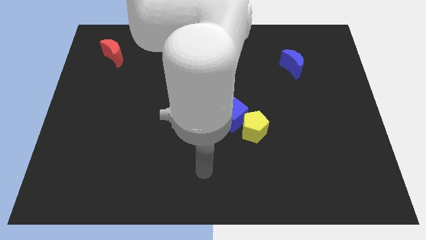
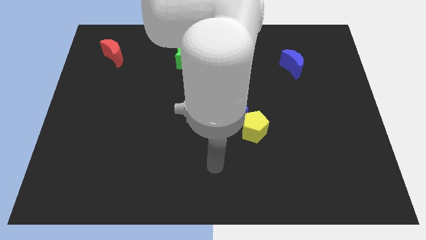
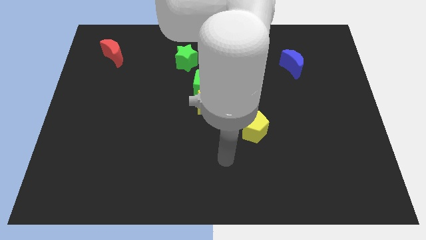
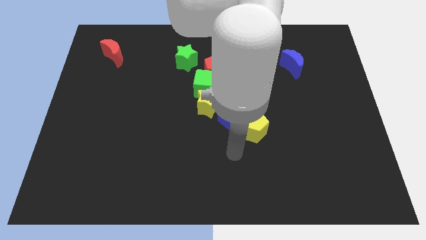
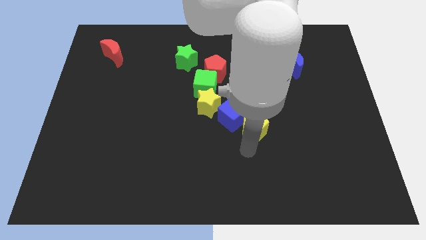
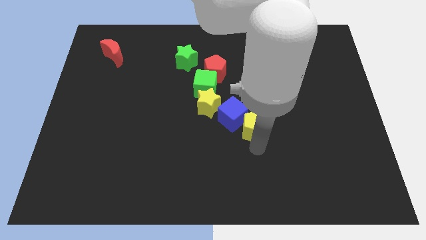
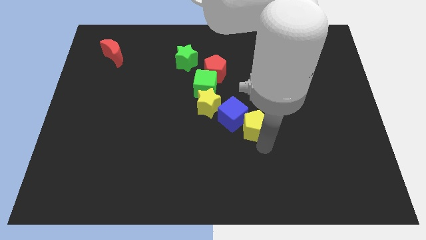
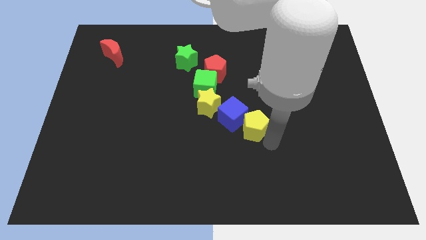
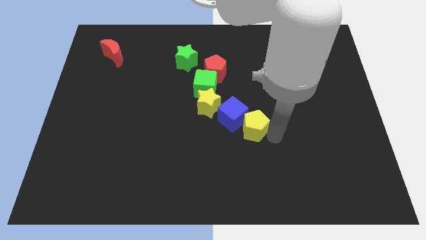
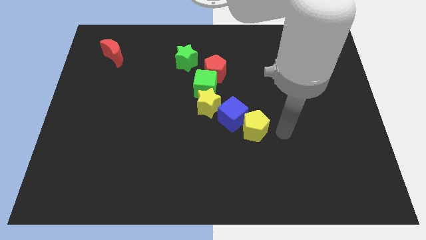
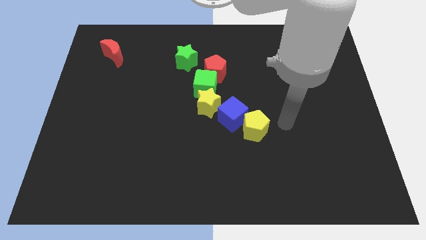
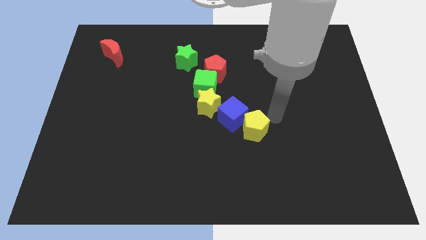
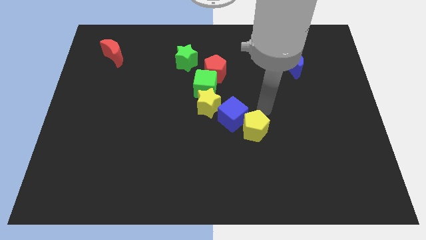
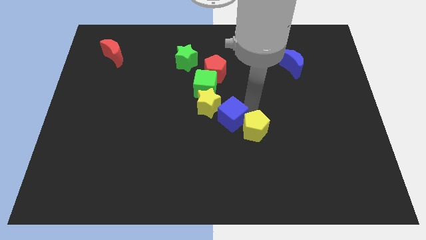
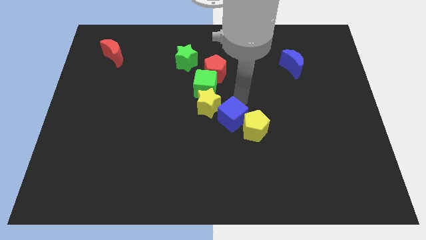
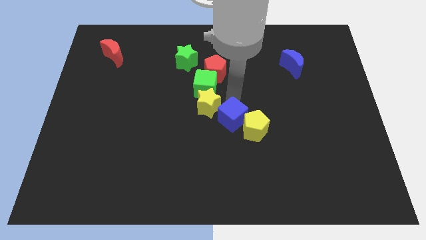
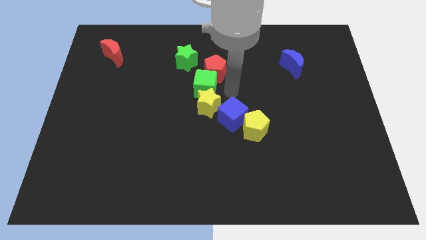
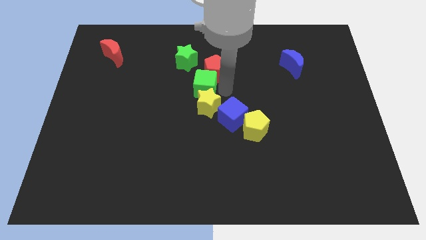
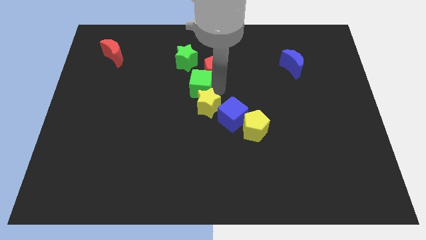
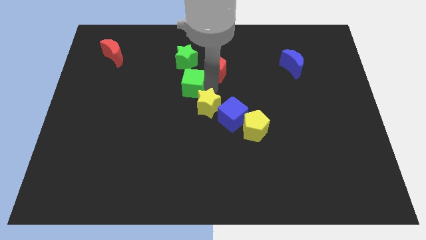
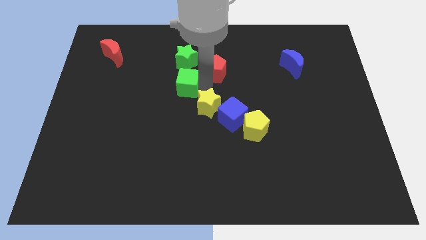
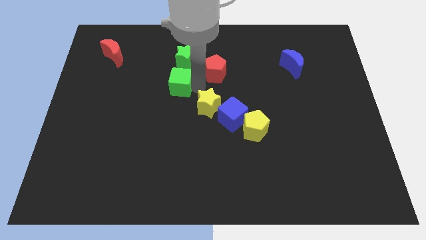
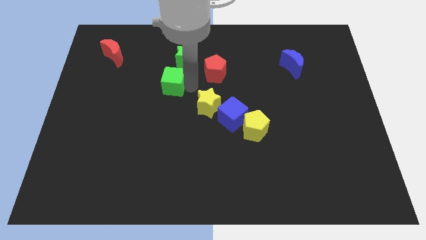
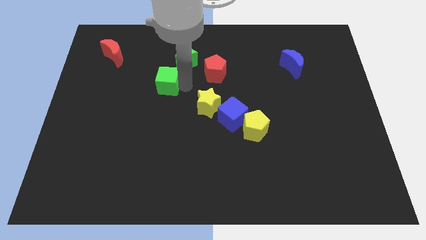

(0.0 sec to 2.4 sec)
pull the green cube apart from the red pentagon and yellow star

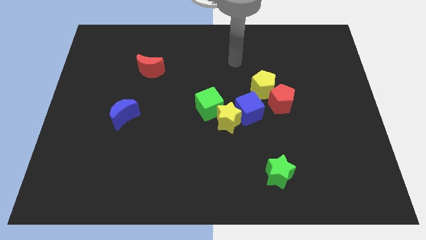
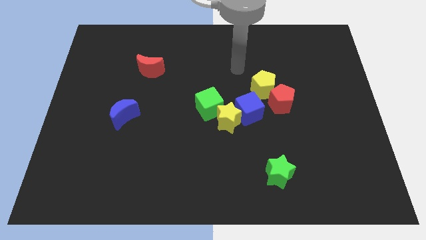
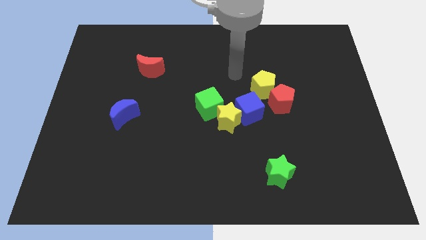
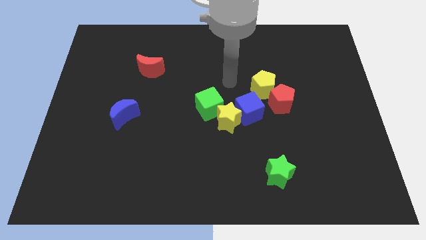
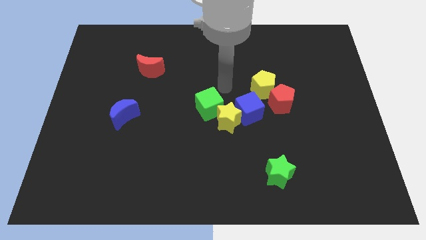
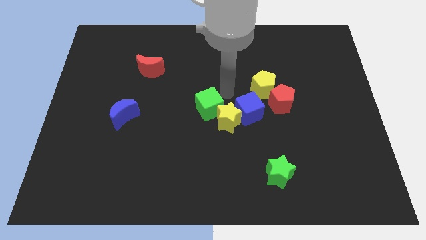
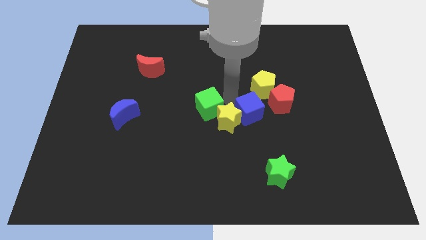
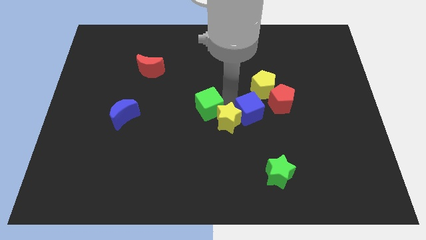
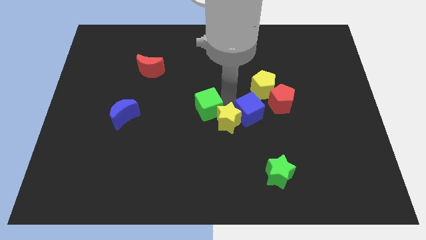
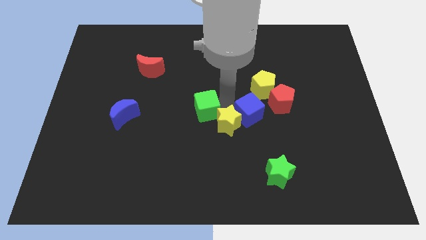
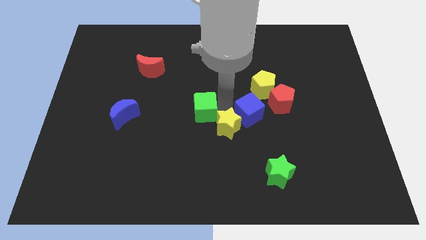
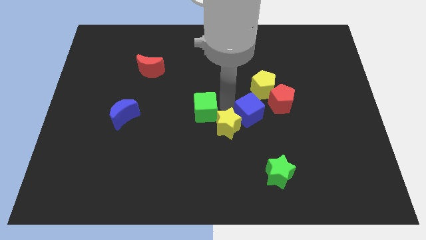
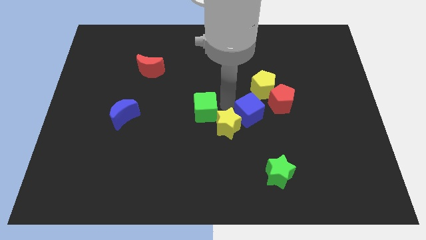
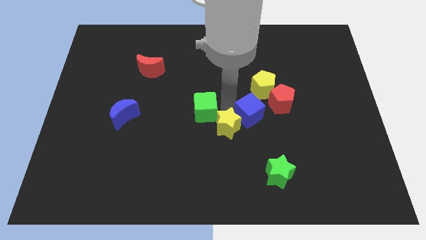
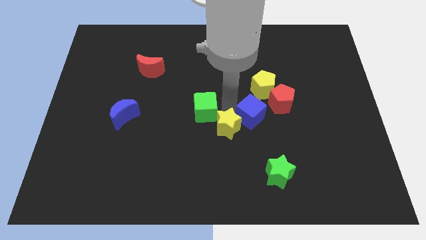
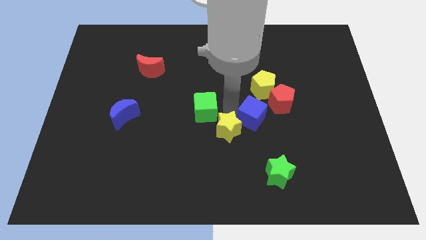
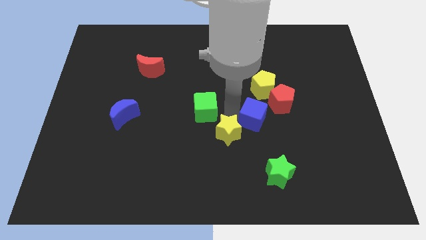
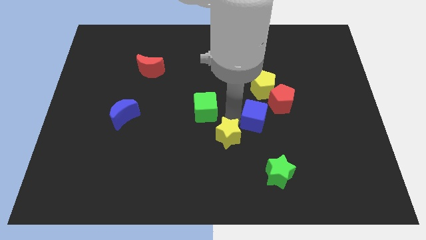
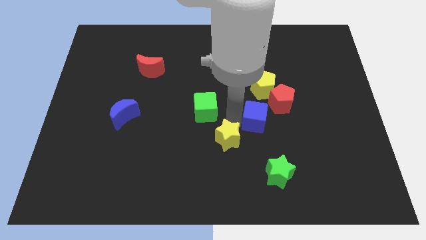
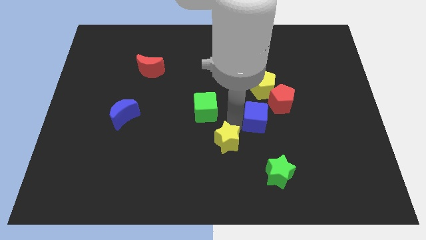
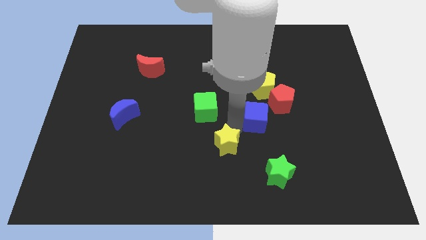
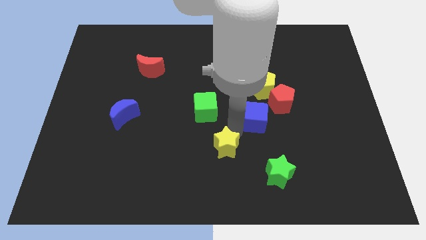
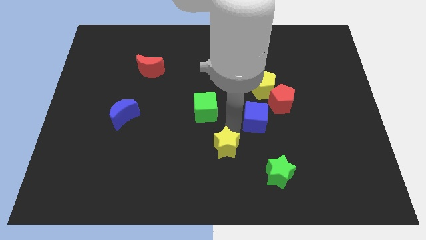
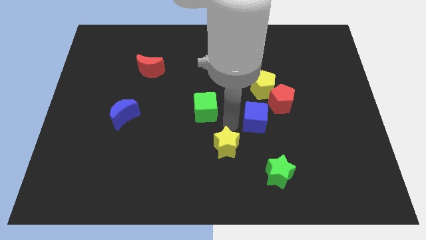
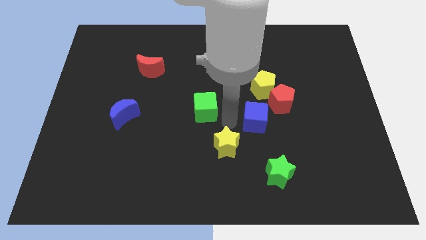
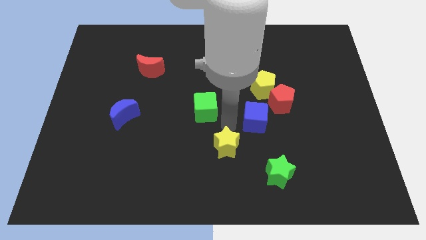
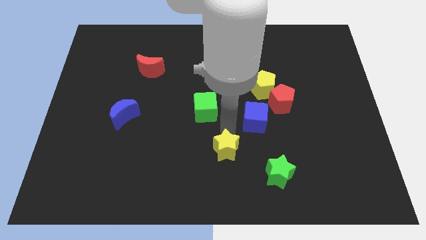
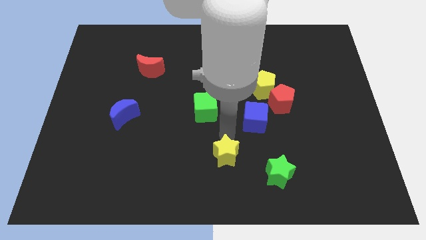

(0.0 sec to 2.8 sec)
pull the yellow star apart from the blue cube and green cube

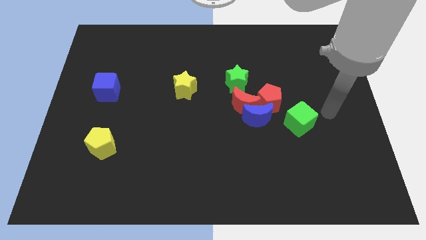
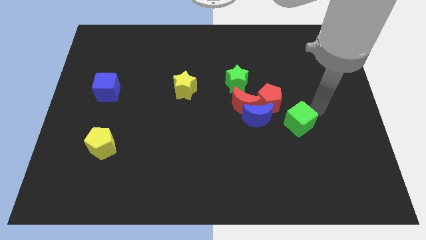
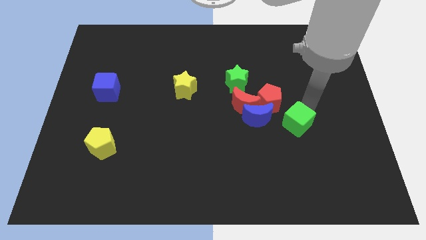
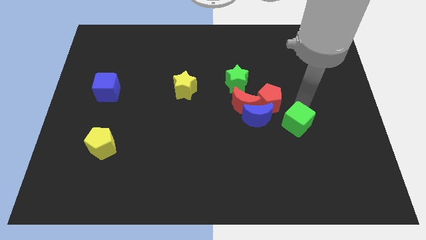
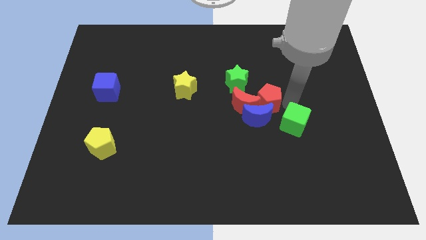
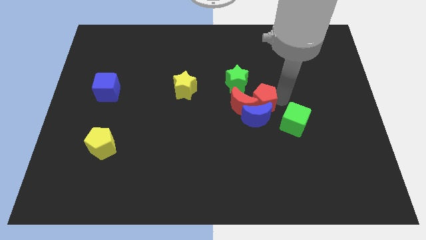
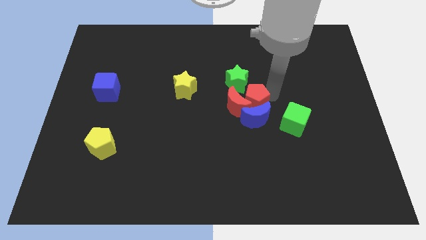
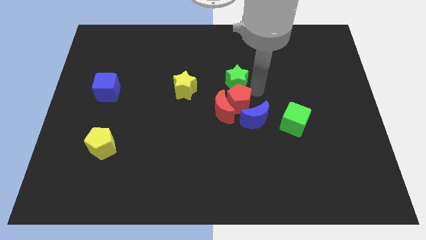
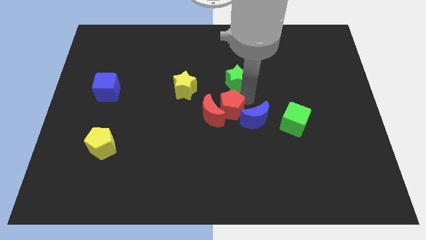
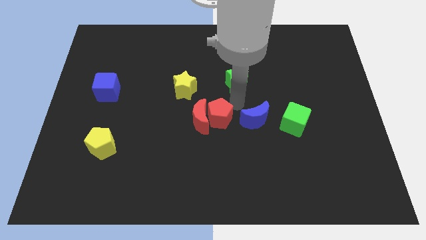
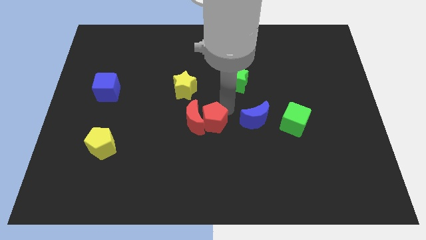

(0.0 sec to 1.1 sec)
separate the red moon from the blue moon, red pentagon, and green star

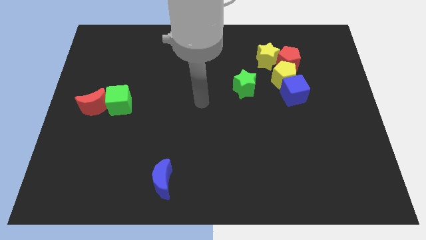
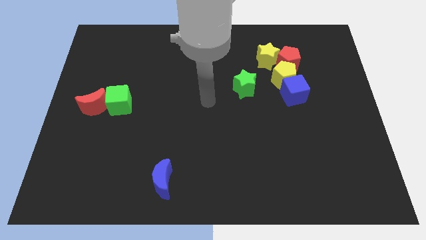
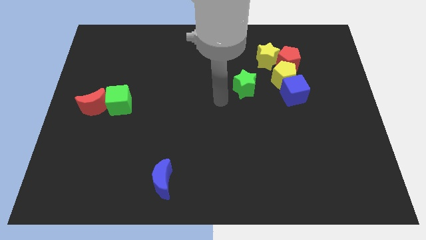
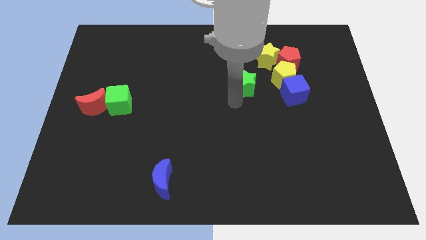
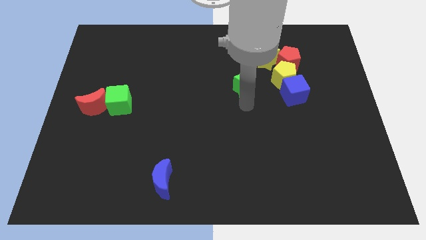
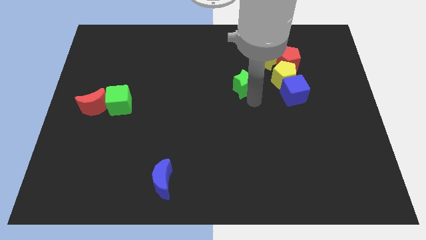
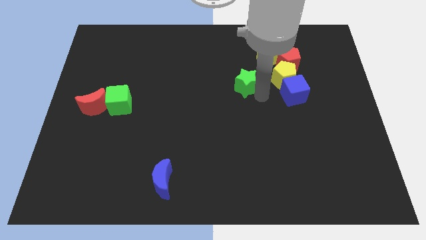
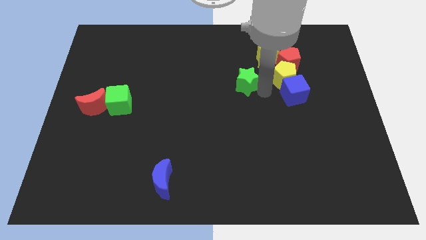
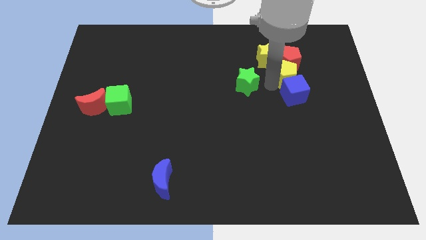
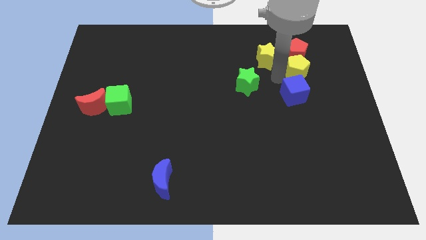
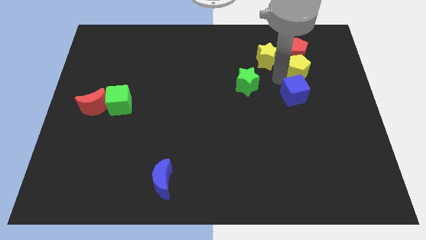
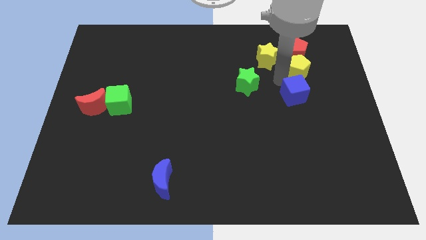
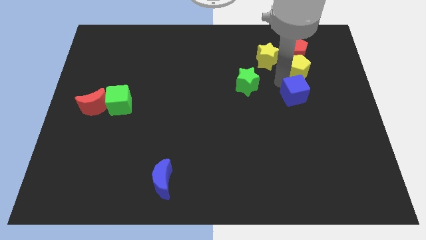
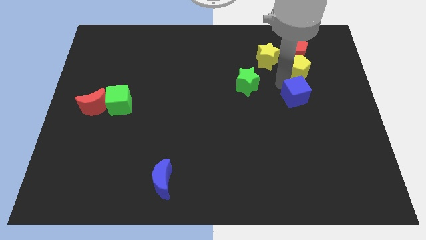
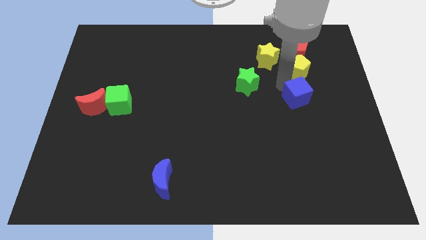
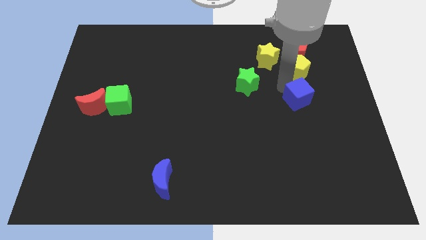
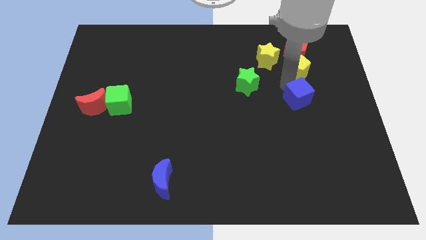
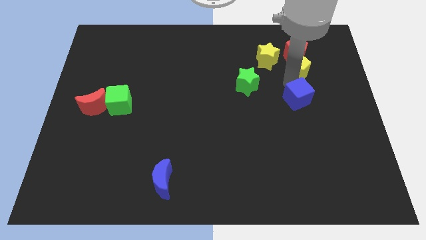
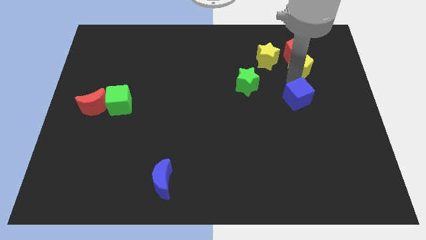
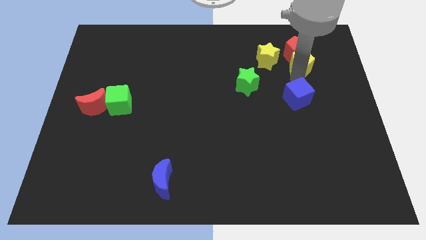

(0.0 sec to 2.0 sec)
pull the blue cube apart from the yellow pentagon

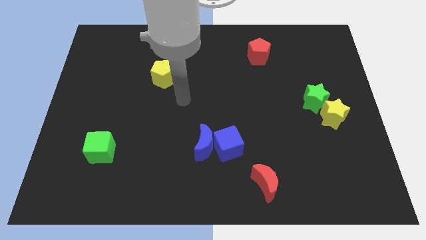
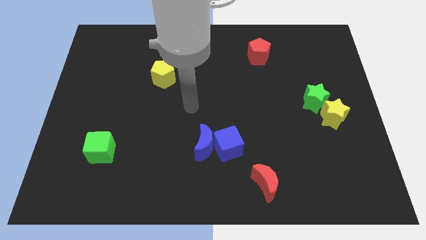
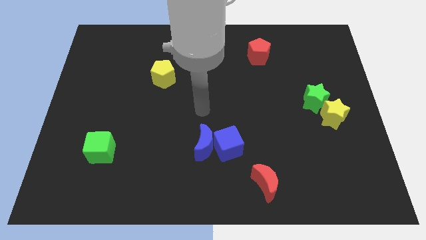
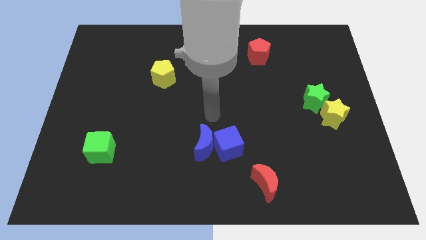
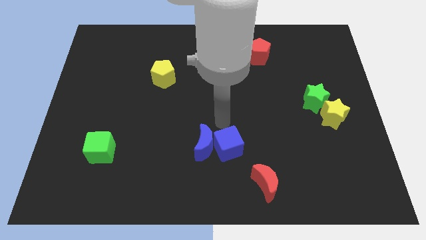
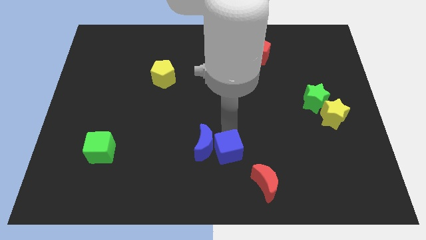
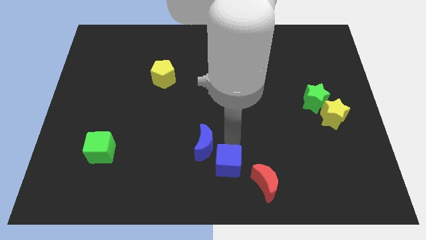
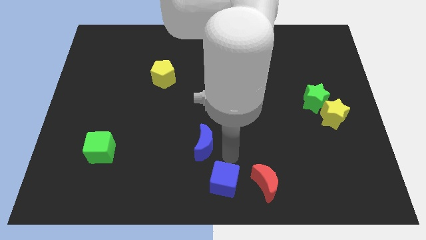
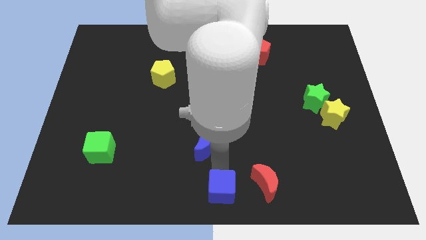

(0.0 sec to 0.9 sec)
separate the blue moon from the blue cube
